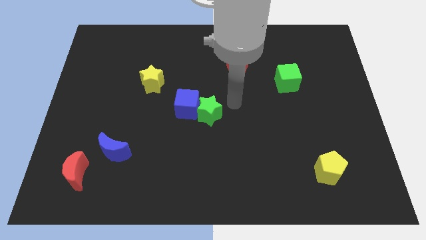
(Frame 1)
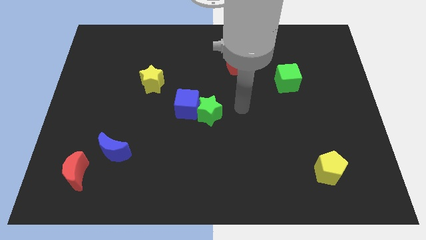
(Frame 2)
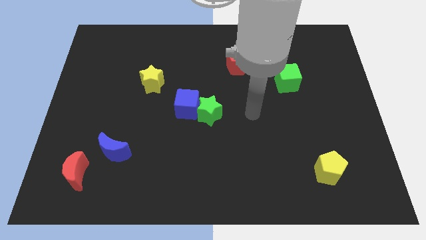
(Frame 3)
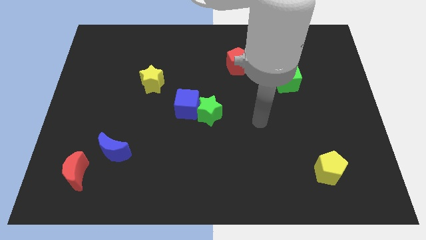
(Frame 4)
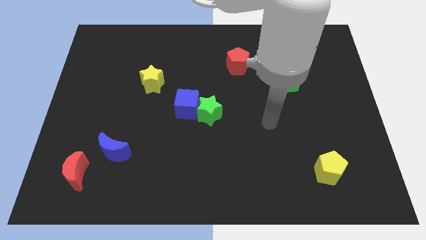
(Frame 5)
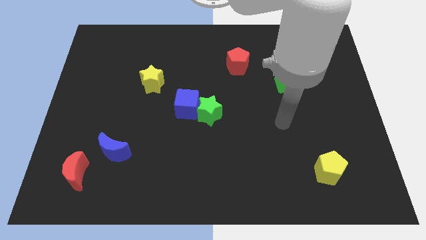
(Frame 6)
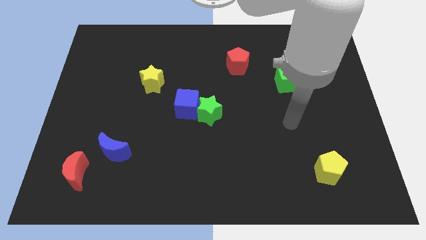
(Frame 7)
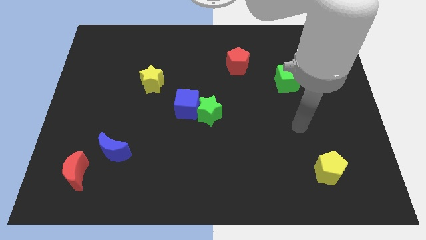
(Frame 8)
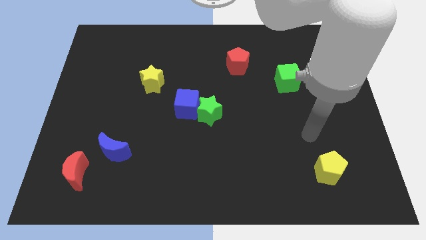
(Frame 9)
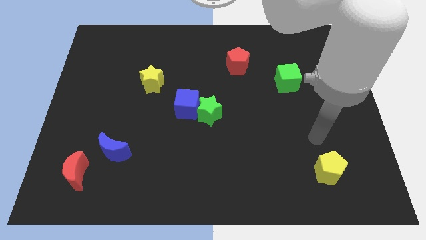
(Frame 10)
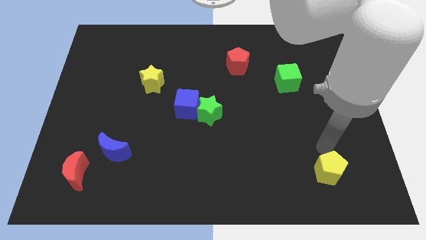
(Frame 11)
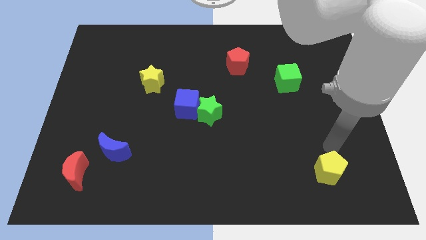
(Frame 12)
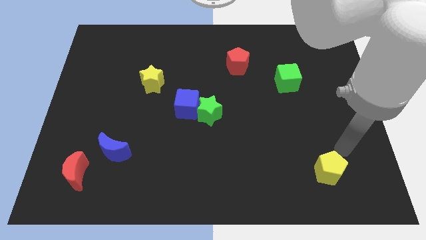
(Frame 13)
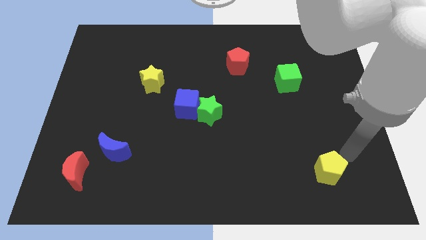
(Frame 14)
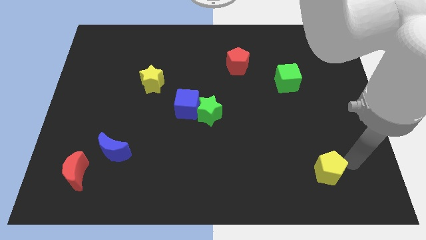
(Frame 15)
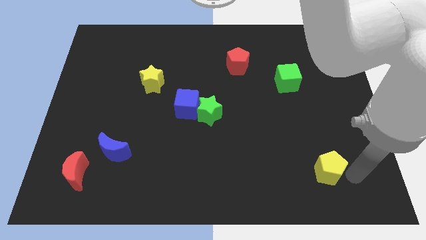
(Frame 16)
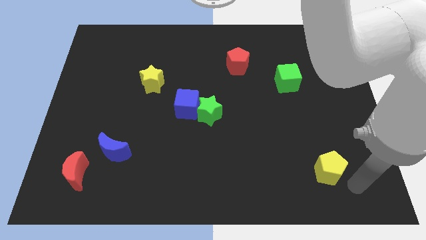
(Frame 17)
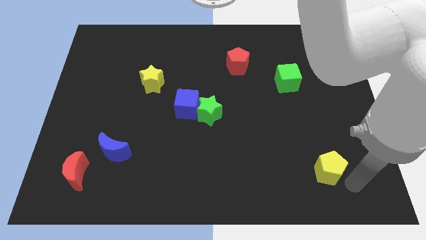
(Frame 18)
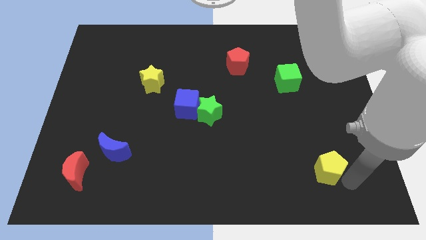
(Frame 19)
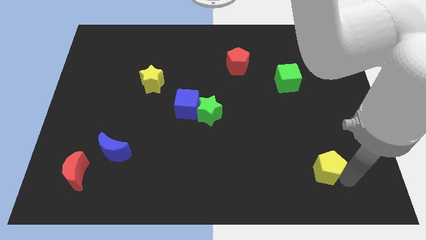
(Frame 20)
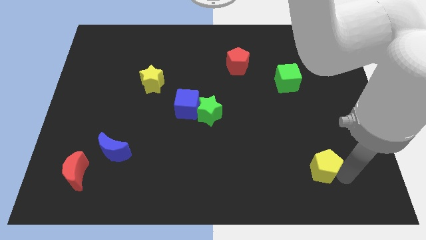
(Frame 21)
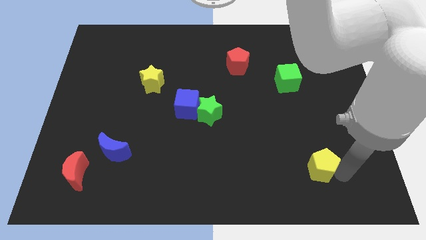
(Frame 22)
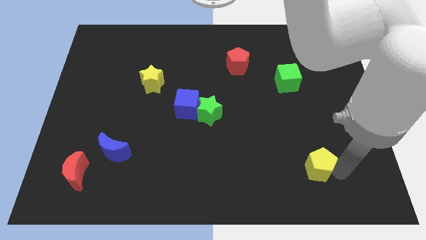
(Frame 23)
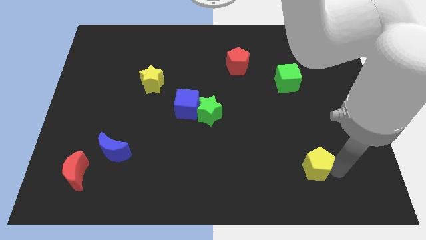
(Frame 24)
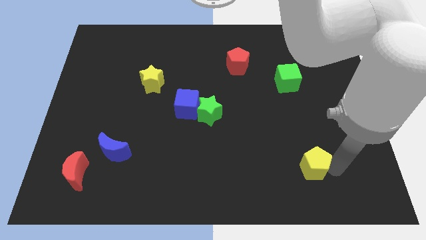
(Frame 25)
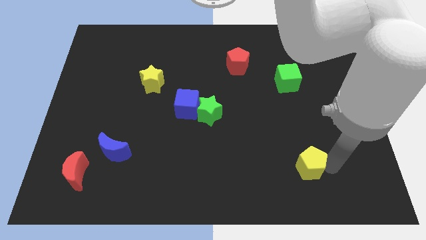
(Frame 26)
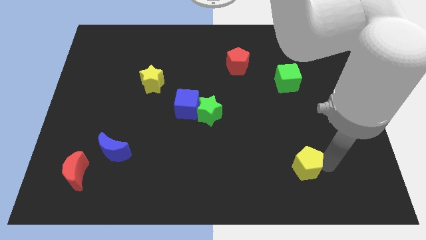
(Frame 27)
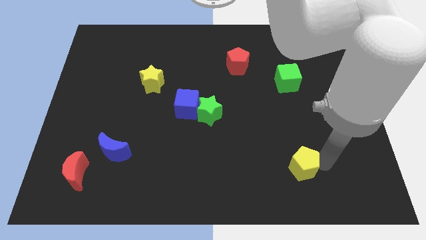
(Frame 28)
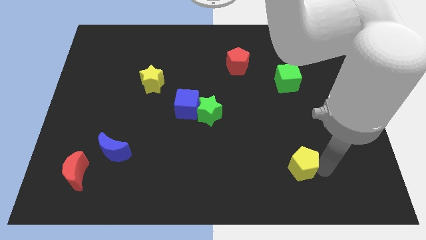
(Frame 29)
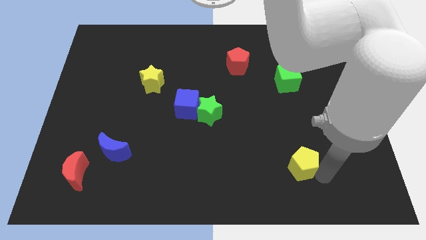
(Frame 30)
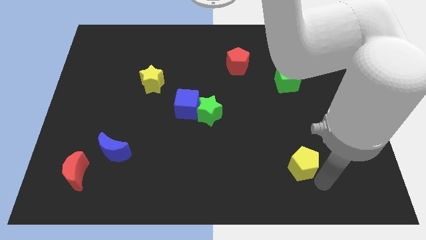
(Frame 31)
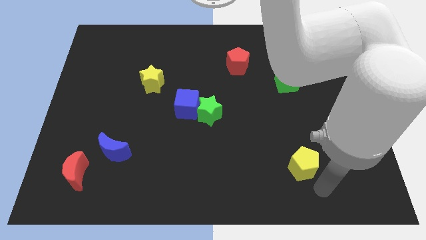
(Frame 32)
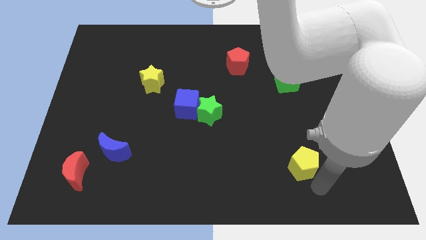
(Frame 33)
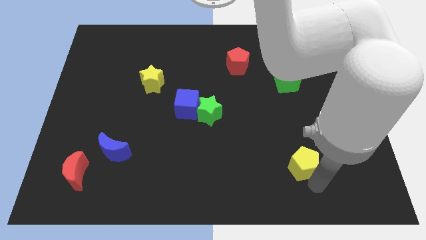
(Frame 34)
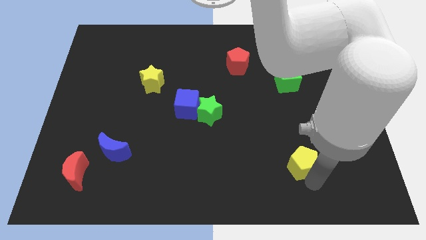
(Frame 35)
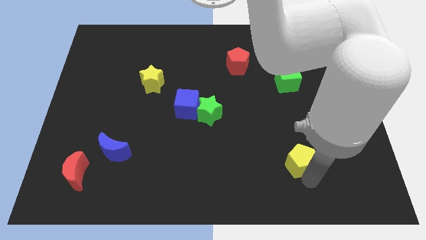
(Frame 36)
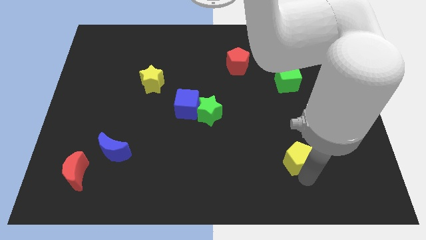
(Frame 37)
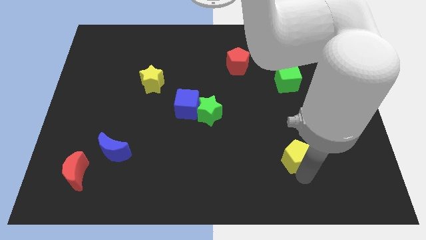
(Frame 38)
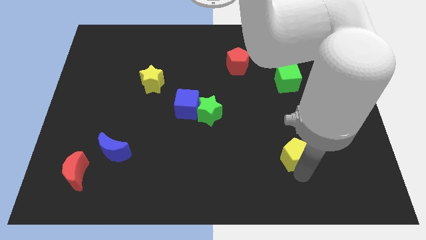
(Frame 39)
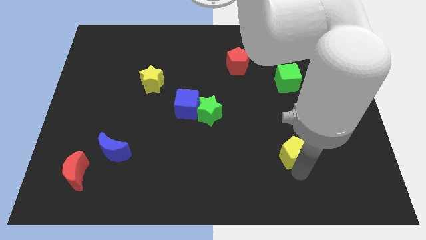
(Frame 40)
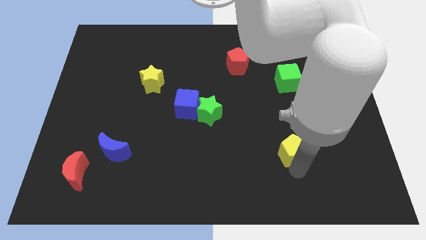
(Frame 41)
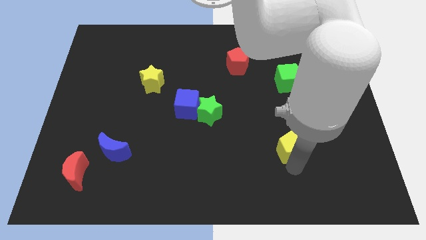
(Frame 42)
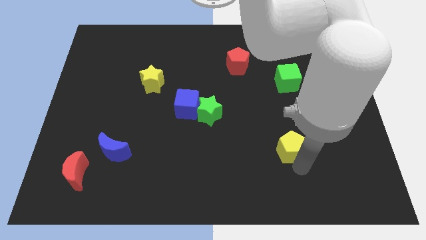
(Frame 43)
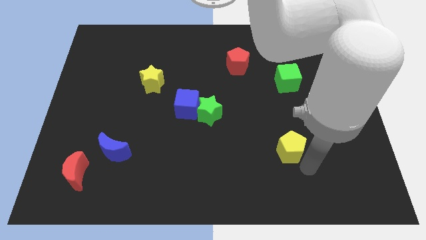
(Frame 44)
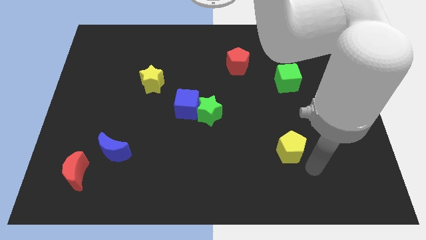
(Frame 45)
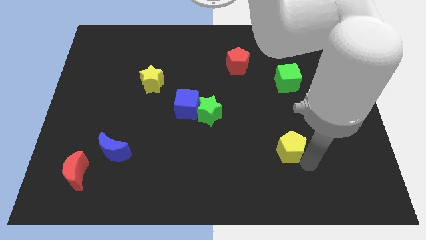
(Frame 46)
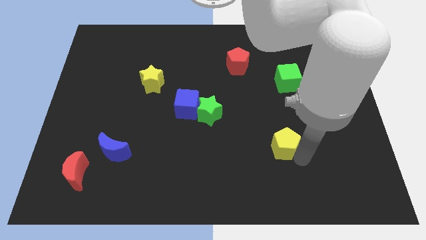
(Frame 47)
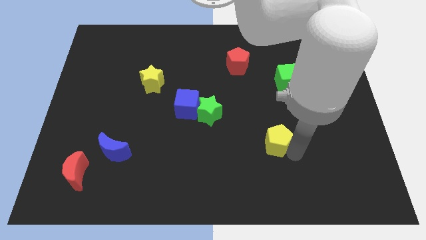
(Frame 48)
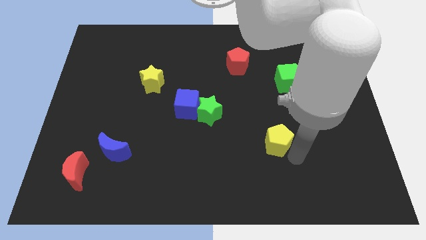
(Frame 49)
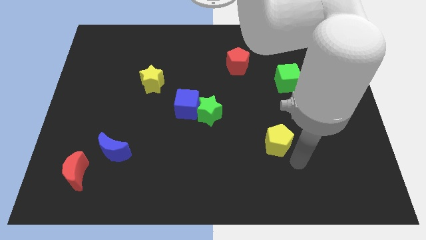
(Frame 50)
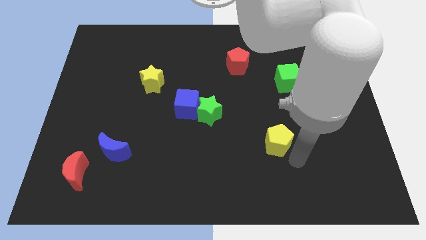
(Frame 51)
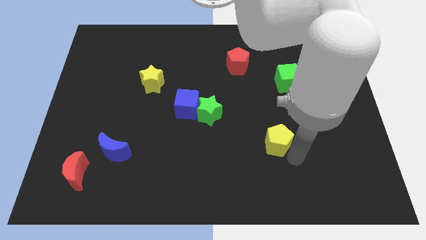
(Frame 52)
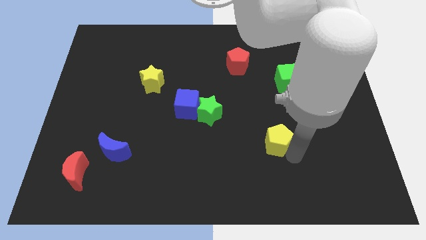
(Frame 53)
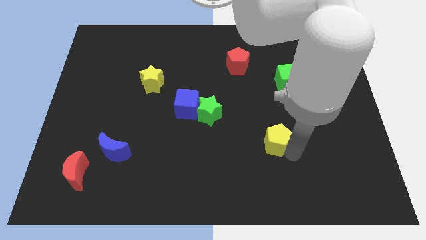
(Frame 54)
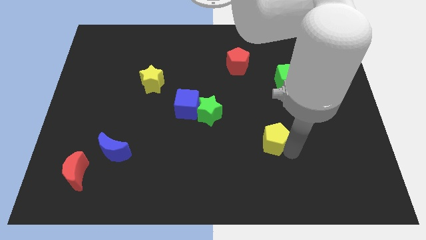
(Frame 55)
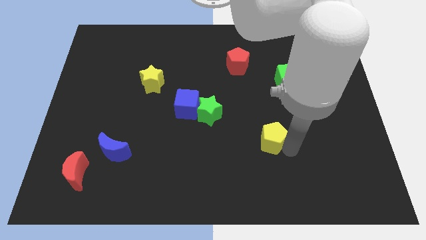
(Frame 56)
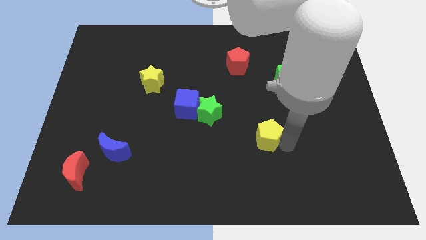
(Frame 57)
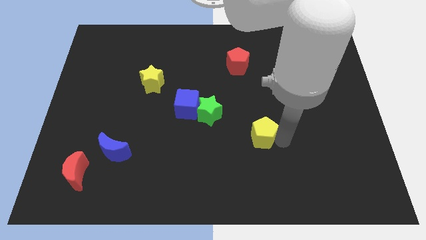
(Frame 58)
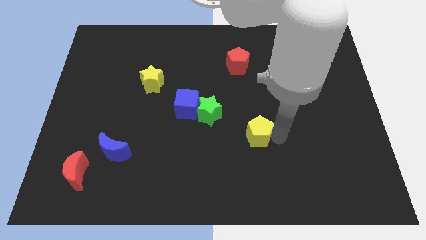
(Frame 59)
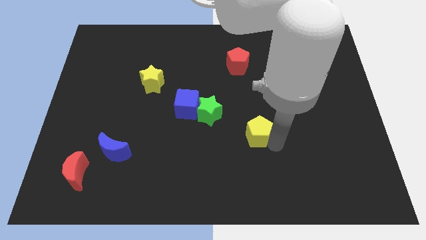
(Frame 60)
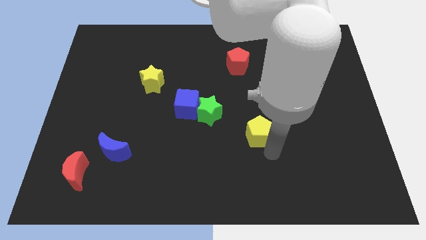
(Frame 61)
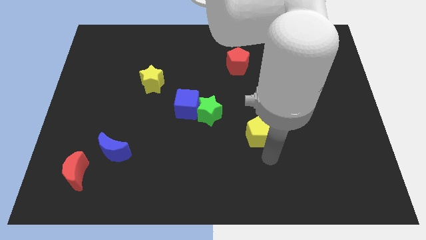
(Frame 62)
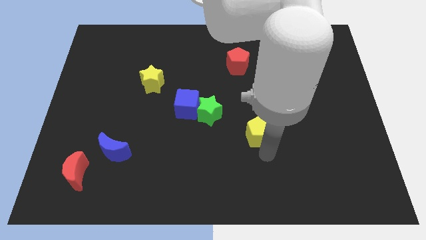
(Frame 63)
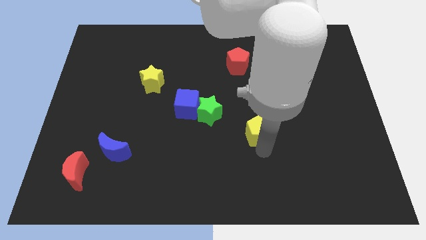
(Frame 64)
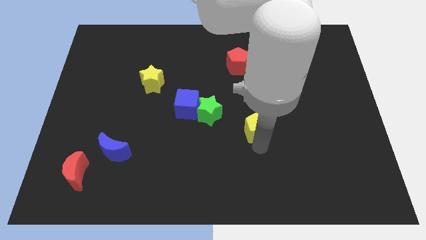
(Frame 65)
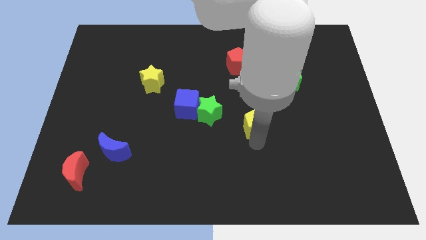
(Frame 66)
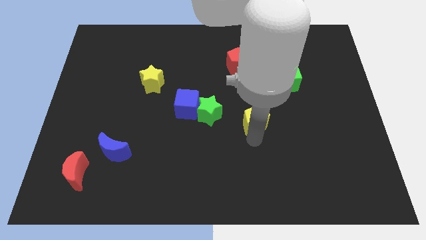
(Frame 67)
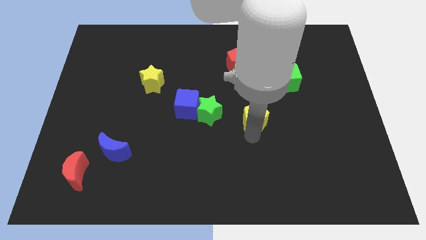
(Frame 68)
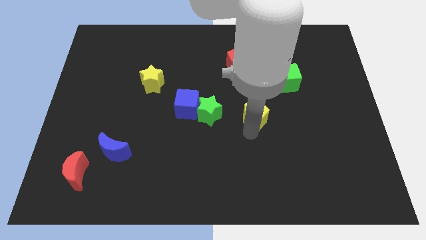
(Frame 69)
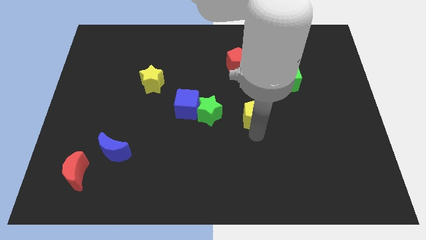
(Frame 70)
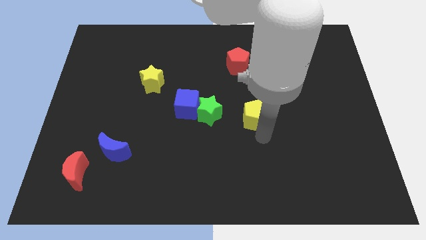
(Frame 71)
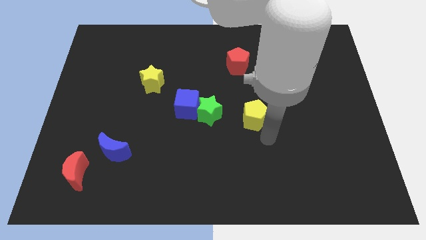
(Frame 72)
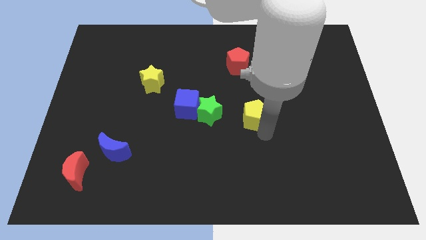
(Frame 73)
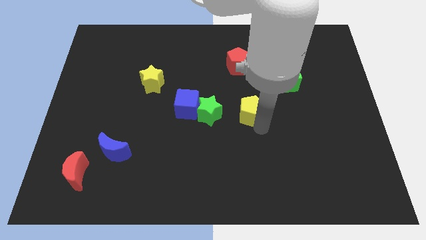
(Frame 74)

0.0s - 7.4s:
push the yellow pentagon below the red pentagon
